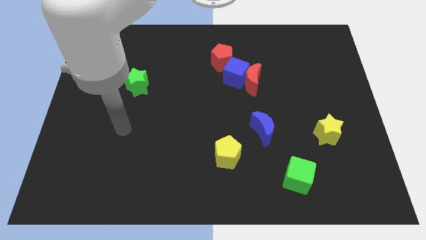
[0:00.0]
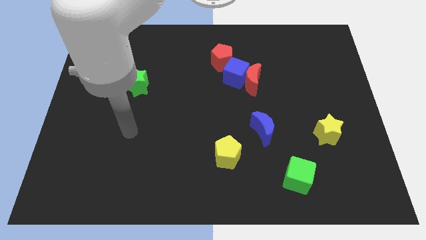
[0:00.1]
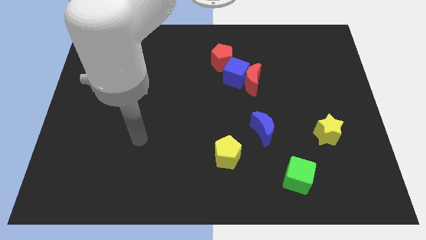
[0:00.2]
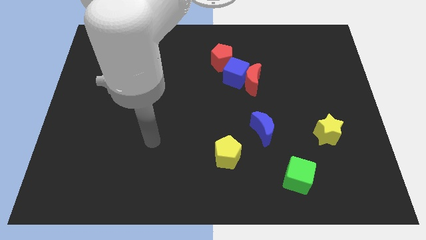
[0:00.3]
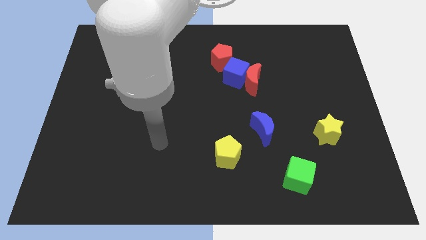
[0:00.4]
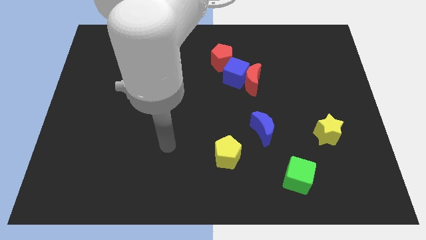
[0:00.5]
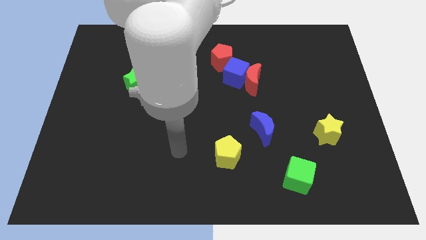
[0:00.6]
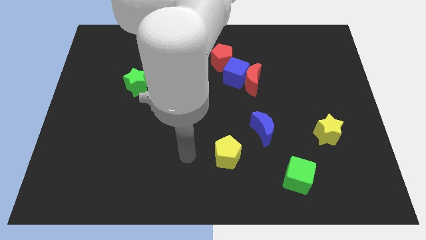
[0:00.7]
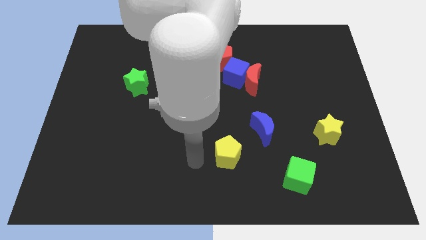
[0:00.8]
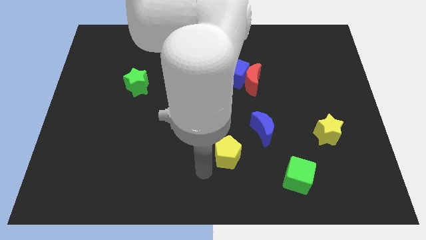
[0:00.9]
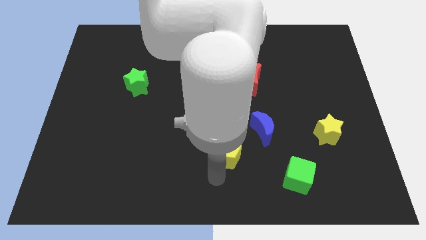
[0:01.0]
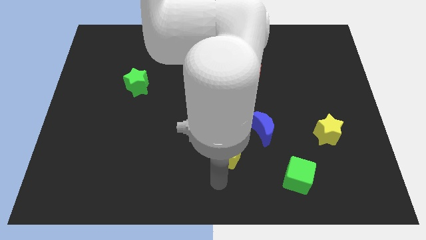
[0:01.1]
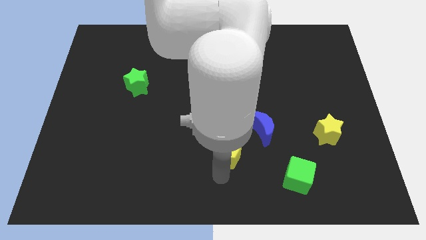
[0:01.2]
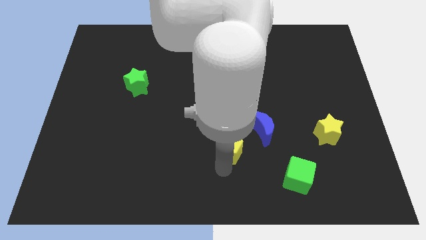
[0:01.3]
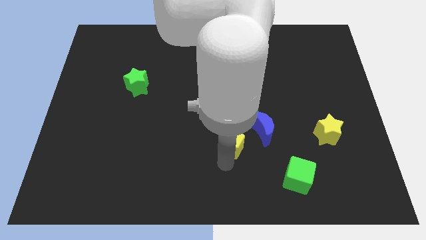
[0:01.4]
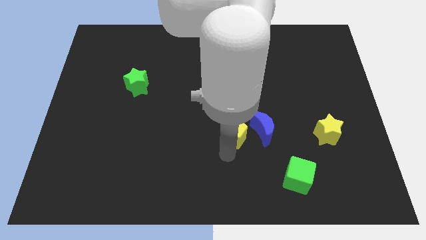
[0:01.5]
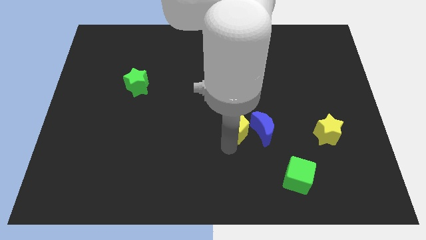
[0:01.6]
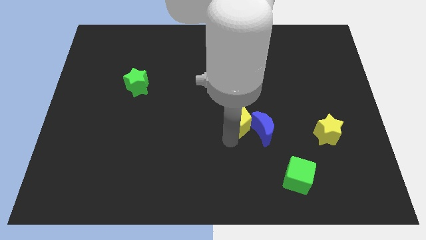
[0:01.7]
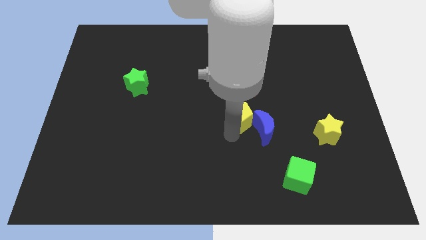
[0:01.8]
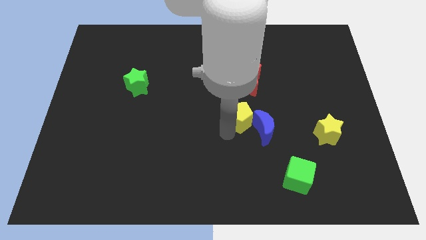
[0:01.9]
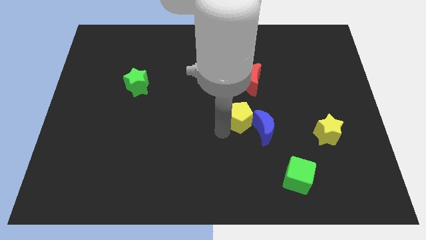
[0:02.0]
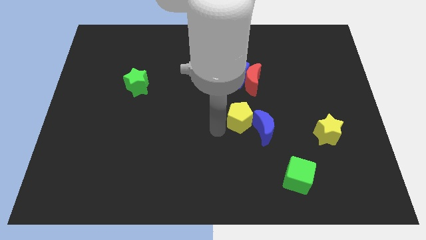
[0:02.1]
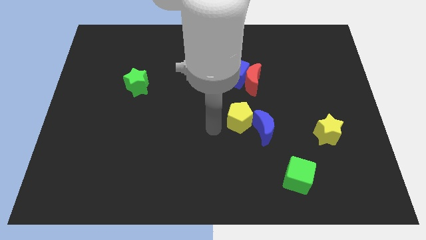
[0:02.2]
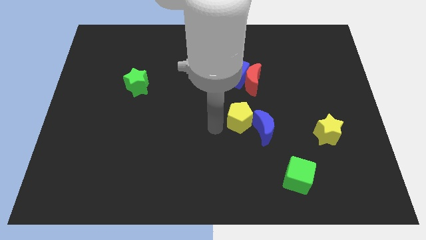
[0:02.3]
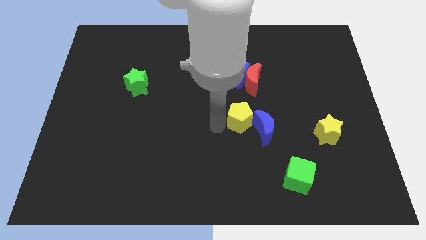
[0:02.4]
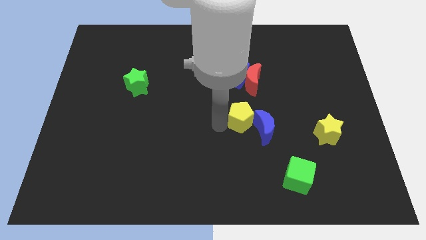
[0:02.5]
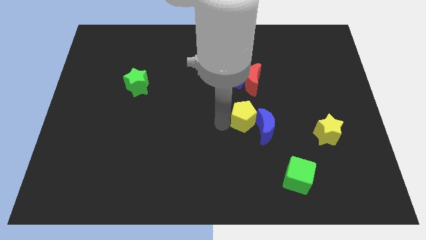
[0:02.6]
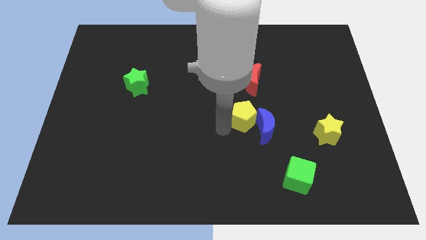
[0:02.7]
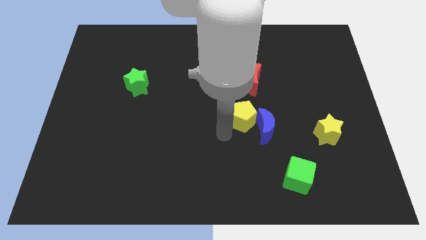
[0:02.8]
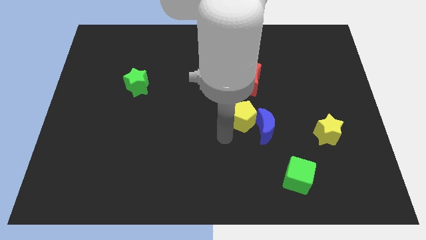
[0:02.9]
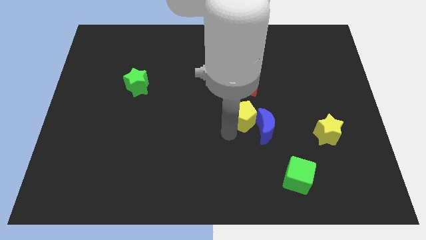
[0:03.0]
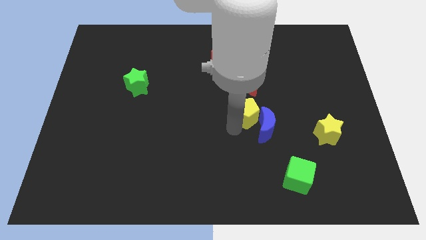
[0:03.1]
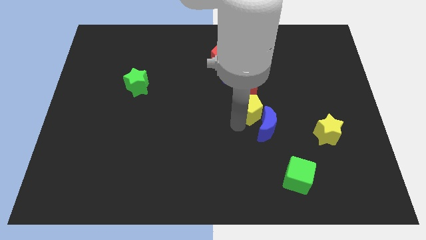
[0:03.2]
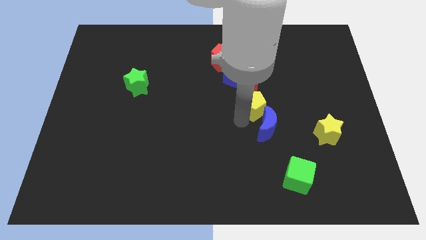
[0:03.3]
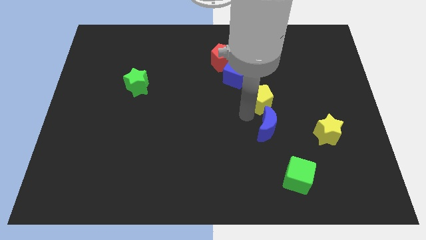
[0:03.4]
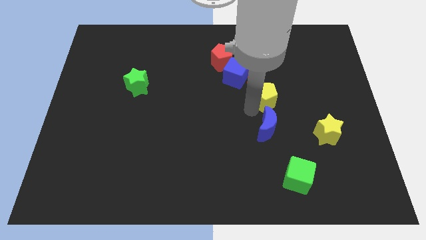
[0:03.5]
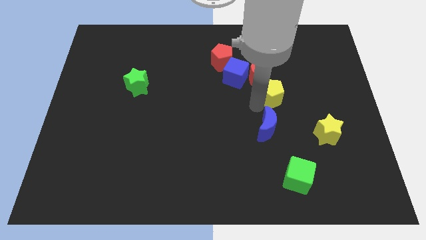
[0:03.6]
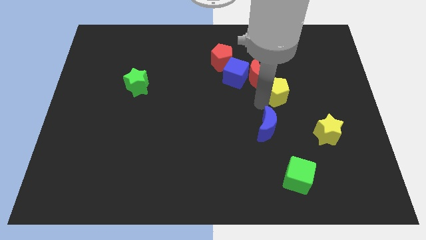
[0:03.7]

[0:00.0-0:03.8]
move the yellow pentagon upwards and then to the right

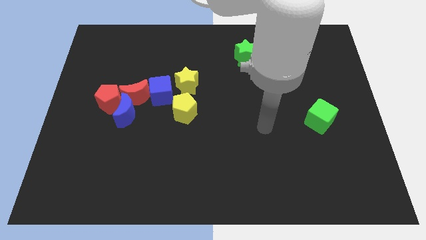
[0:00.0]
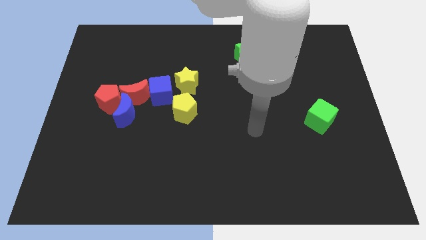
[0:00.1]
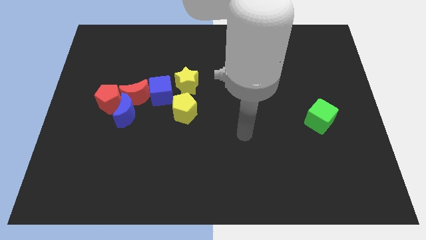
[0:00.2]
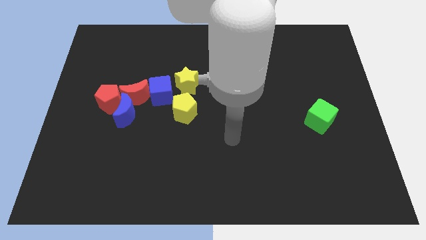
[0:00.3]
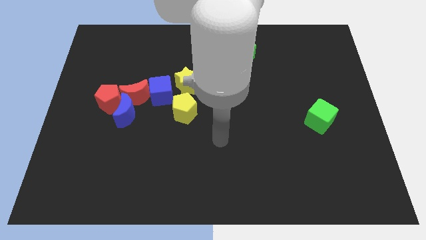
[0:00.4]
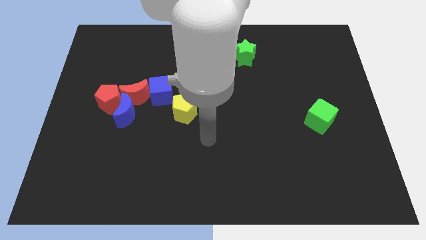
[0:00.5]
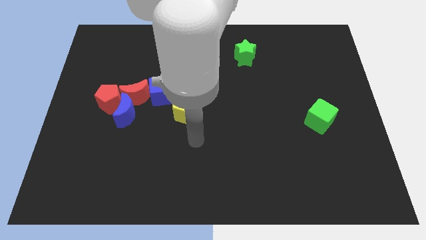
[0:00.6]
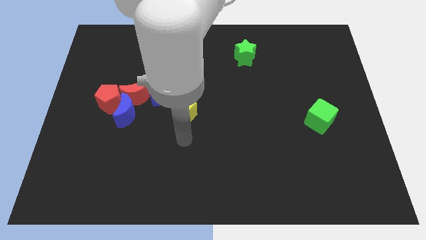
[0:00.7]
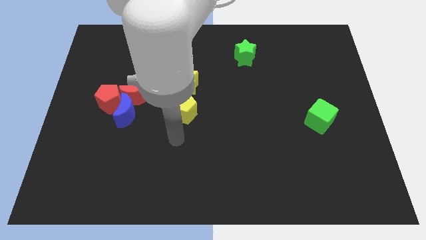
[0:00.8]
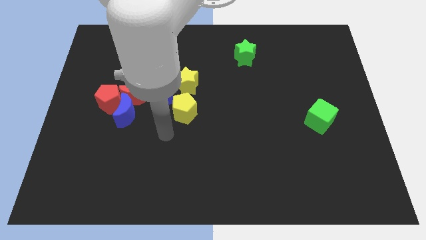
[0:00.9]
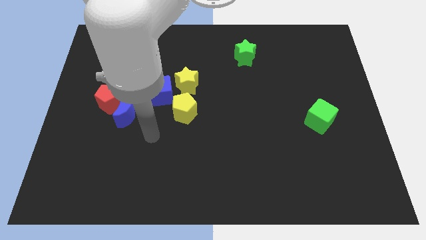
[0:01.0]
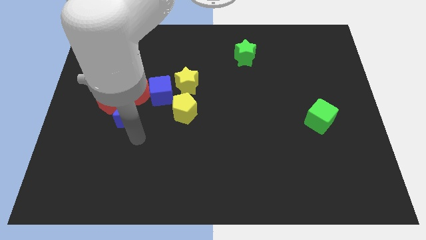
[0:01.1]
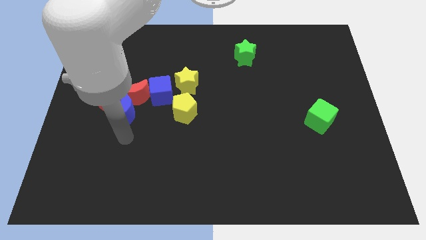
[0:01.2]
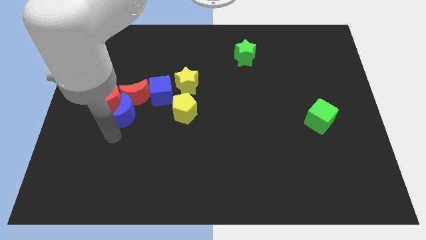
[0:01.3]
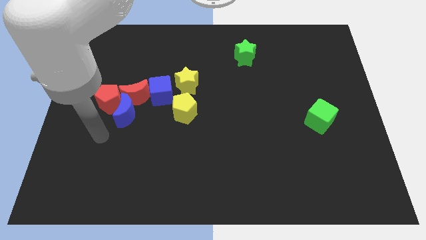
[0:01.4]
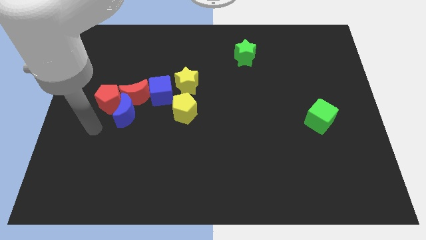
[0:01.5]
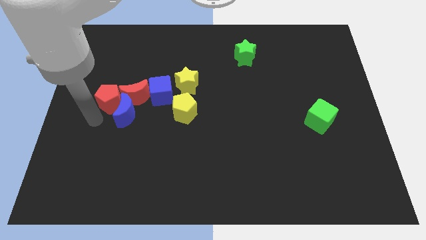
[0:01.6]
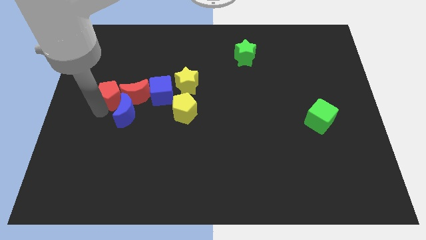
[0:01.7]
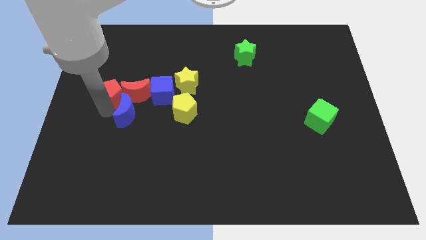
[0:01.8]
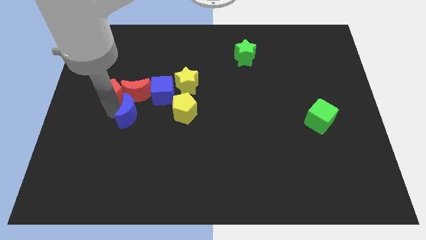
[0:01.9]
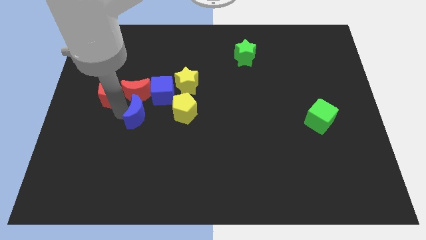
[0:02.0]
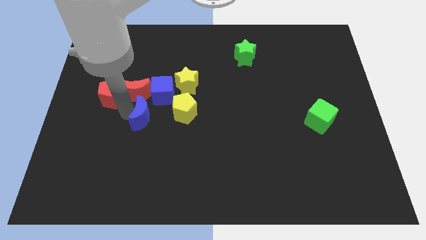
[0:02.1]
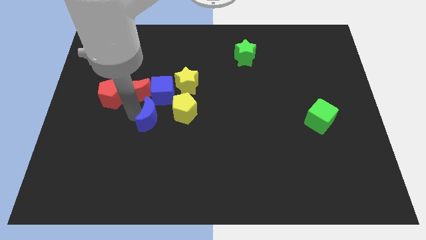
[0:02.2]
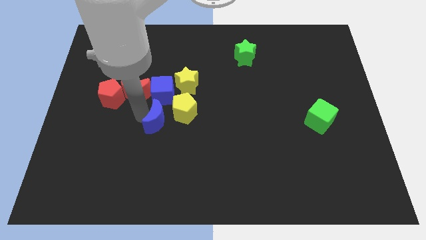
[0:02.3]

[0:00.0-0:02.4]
push the blue moon right a little bit

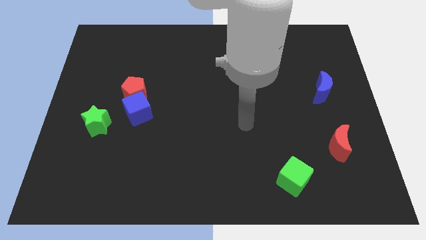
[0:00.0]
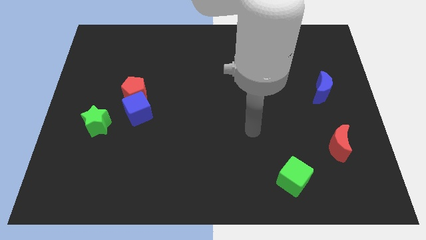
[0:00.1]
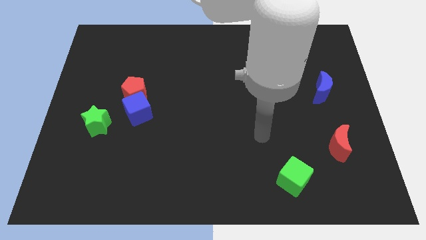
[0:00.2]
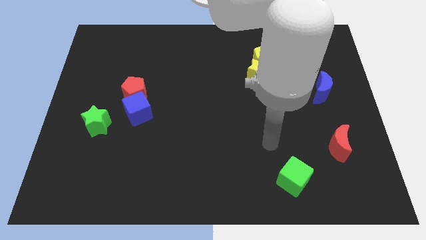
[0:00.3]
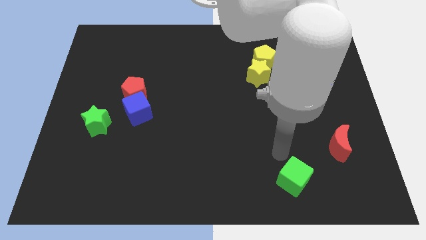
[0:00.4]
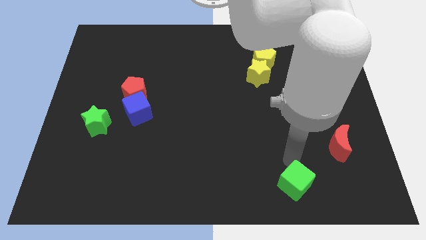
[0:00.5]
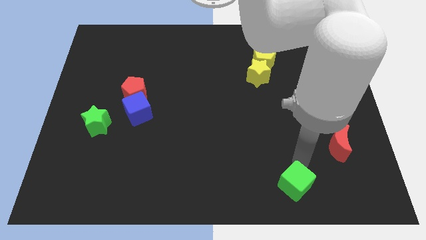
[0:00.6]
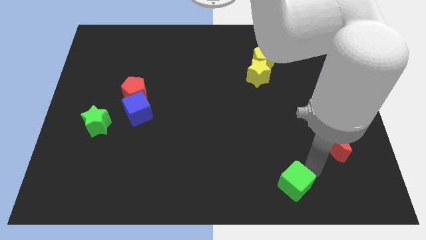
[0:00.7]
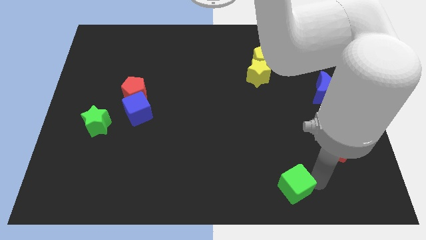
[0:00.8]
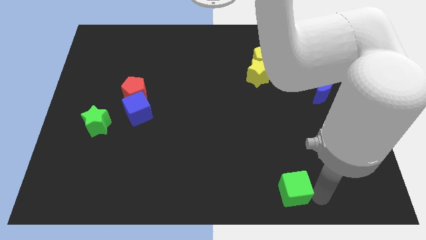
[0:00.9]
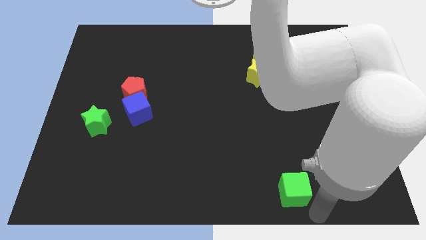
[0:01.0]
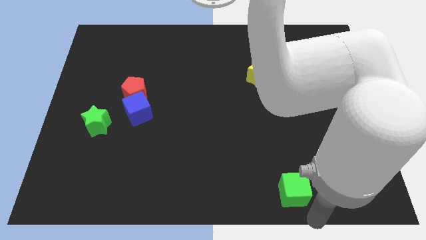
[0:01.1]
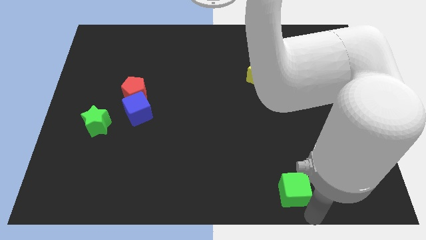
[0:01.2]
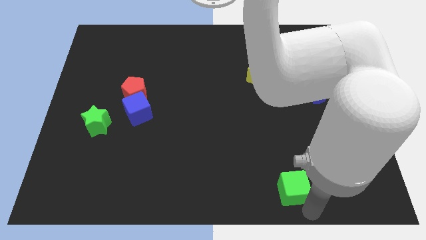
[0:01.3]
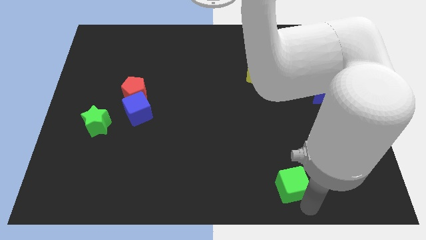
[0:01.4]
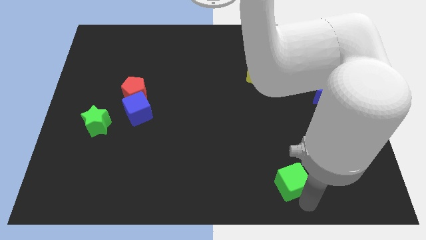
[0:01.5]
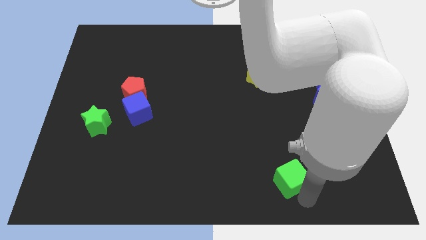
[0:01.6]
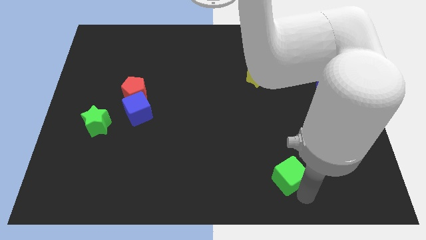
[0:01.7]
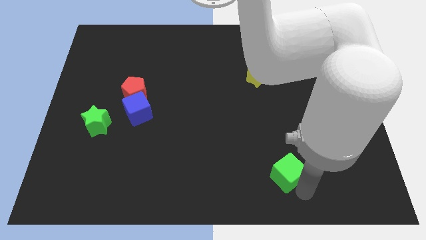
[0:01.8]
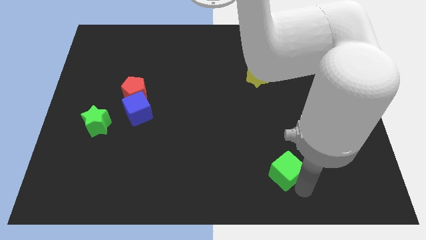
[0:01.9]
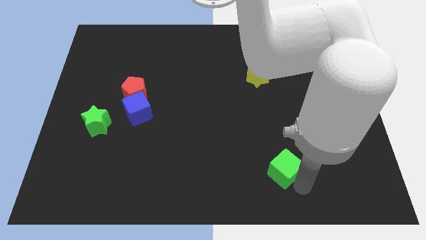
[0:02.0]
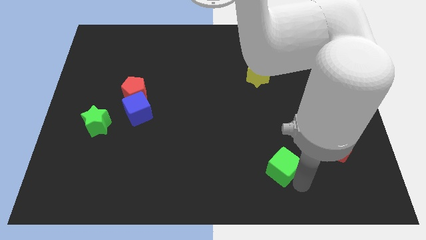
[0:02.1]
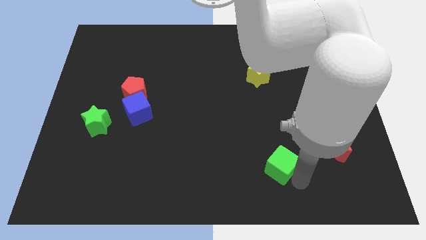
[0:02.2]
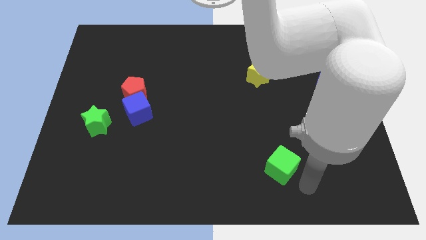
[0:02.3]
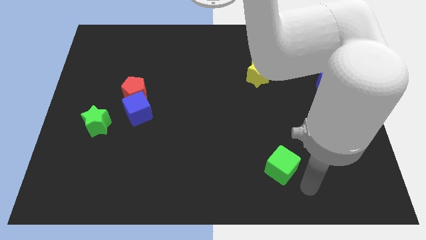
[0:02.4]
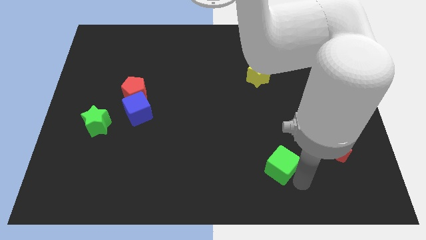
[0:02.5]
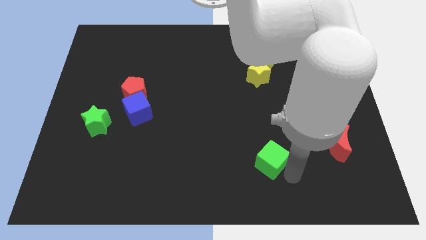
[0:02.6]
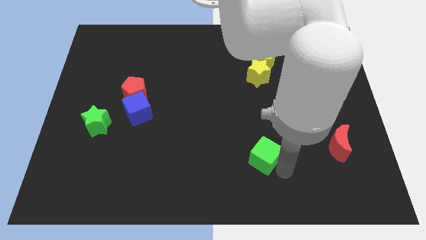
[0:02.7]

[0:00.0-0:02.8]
move the green cube a little up and then to the left
